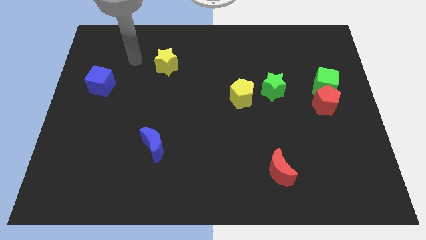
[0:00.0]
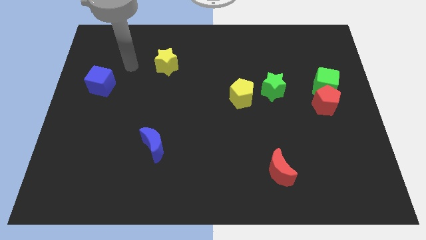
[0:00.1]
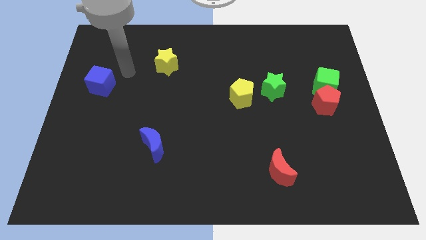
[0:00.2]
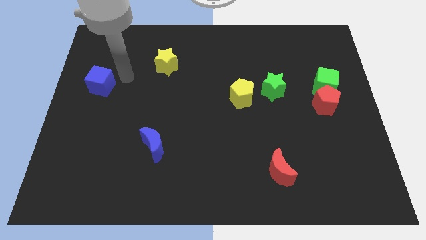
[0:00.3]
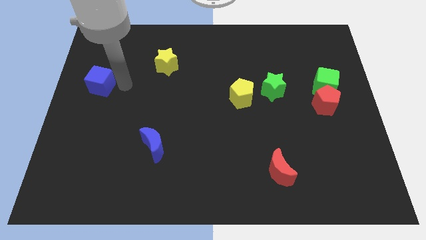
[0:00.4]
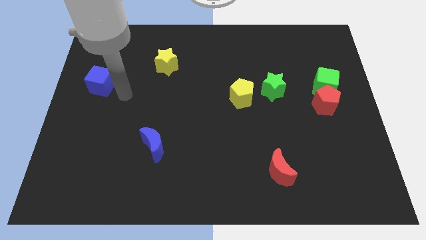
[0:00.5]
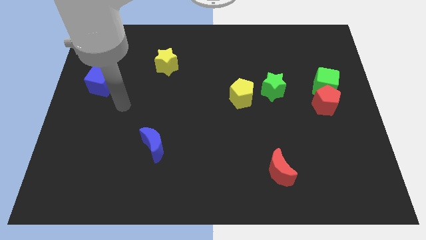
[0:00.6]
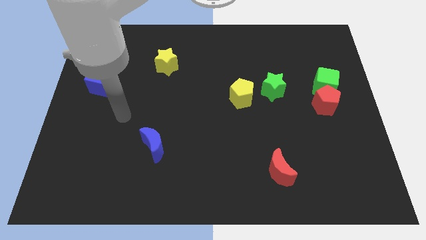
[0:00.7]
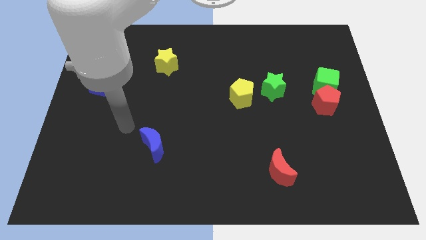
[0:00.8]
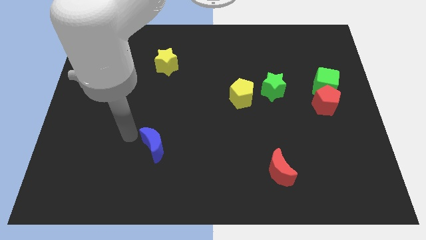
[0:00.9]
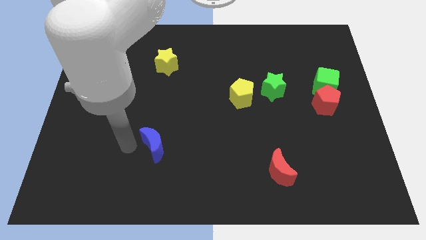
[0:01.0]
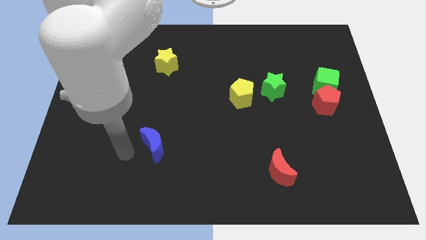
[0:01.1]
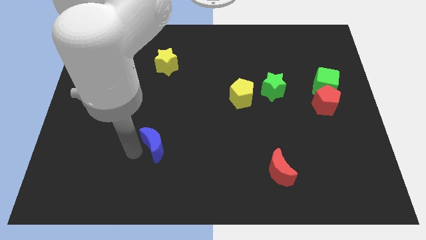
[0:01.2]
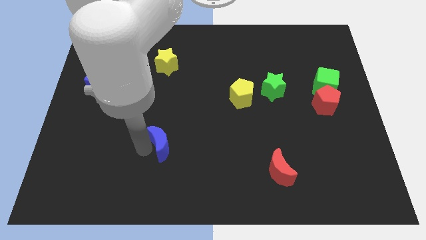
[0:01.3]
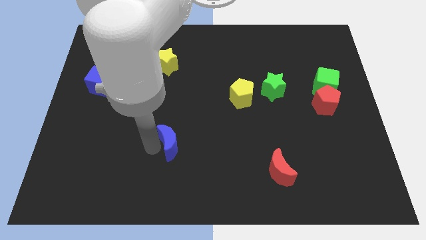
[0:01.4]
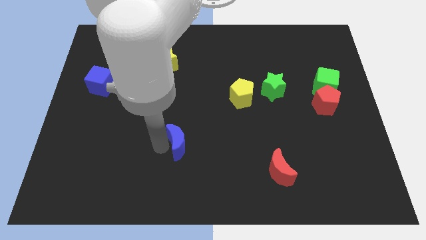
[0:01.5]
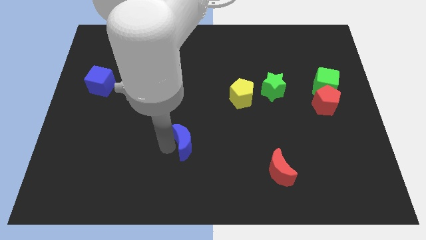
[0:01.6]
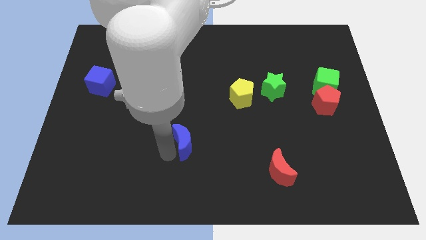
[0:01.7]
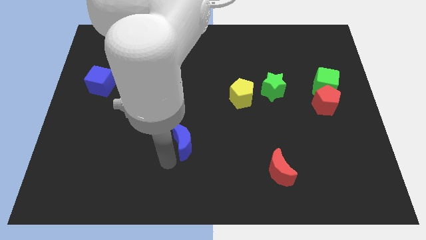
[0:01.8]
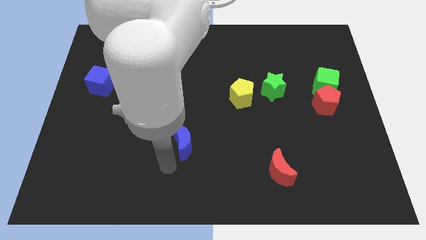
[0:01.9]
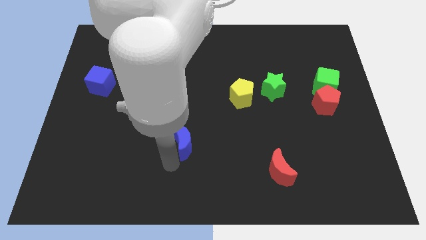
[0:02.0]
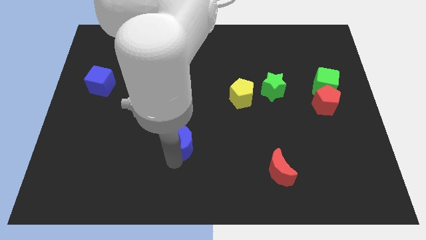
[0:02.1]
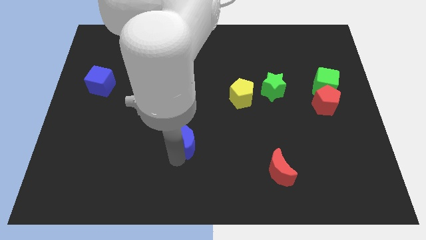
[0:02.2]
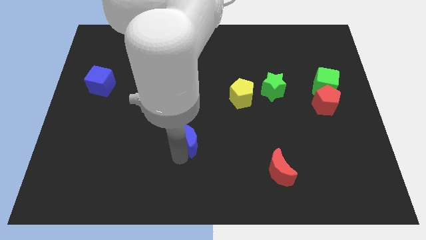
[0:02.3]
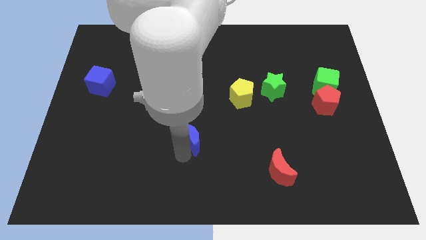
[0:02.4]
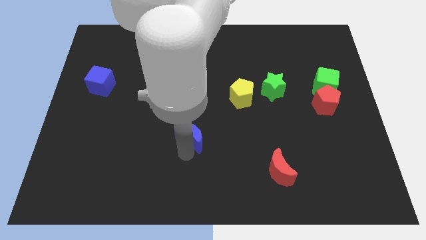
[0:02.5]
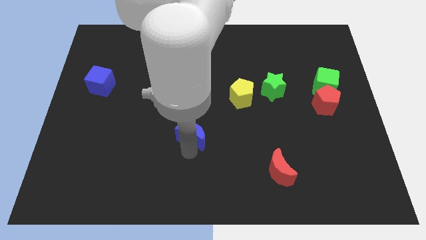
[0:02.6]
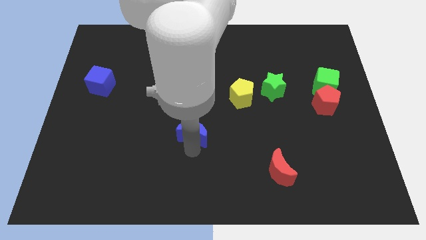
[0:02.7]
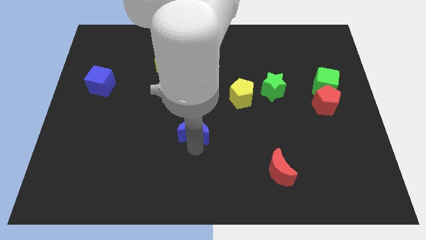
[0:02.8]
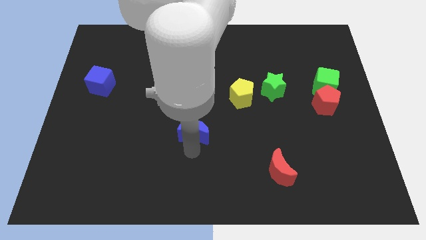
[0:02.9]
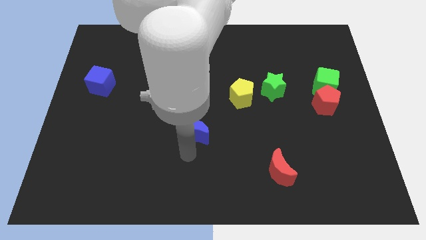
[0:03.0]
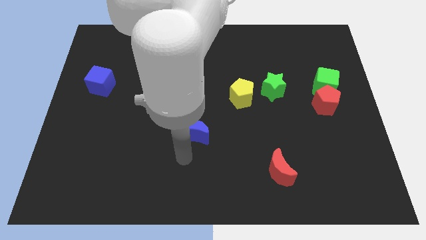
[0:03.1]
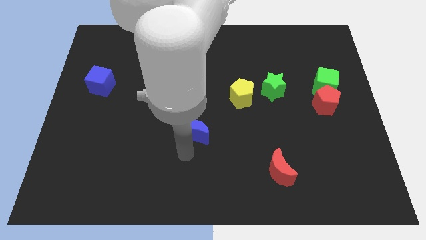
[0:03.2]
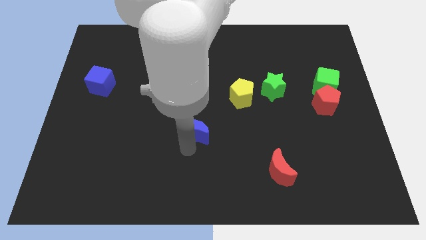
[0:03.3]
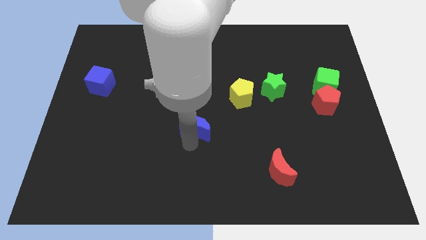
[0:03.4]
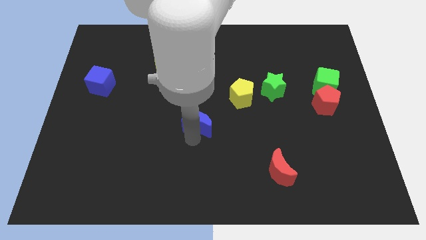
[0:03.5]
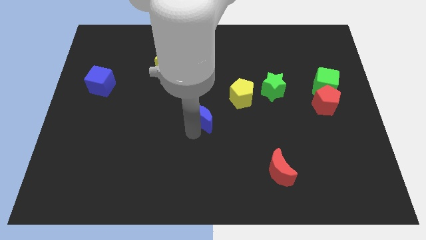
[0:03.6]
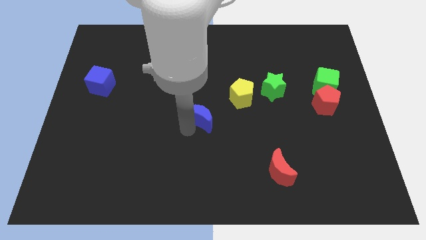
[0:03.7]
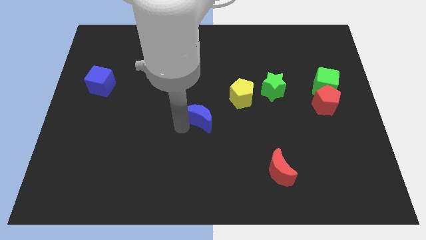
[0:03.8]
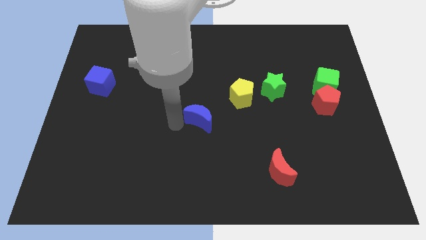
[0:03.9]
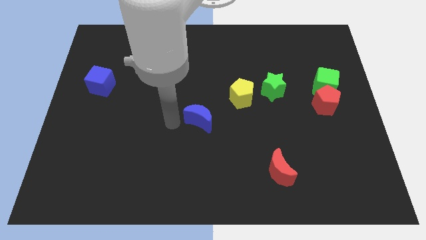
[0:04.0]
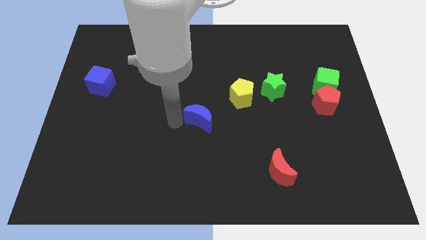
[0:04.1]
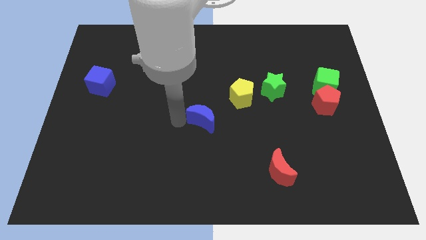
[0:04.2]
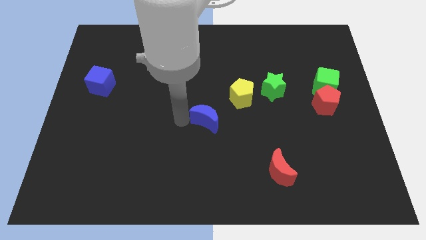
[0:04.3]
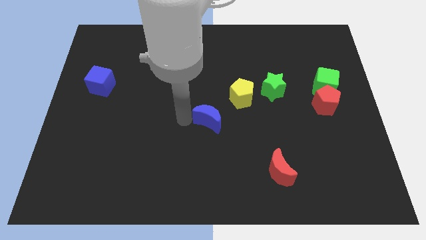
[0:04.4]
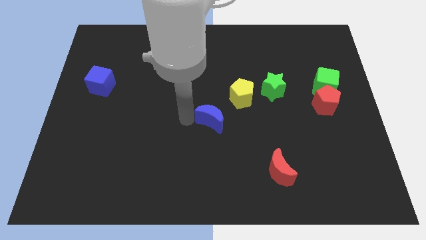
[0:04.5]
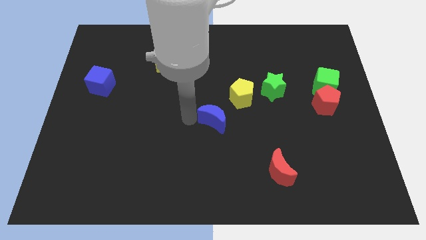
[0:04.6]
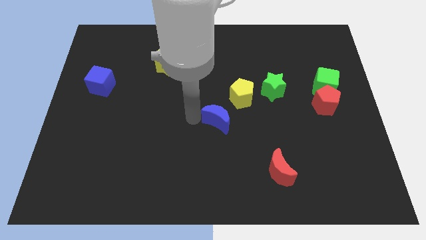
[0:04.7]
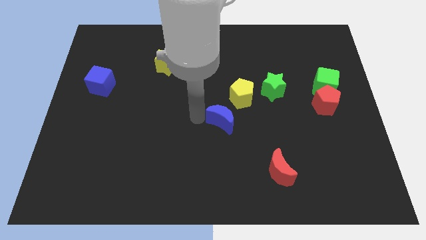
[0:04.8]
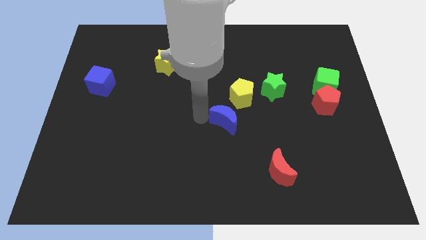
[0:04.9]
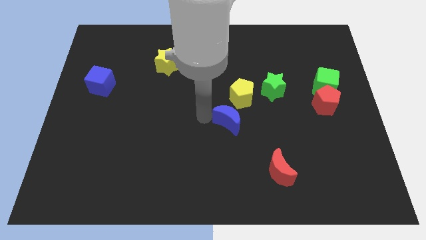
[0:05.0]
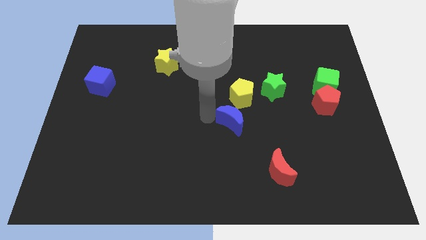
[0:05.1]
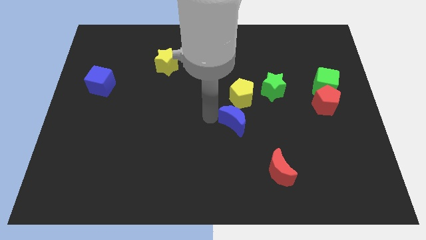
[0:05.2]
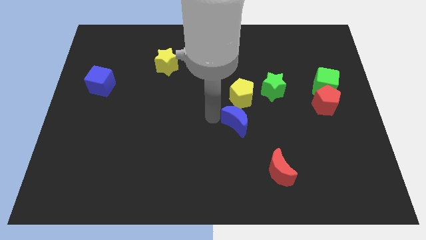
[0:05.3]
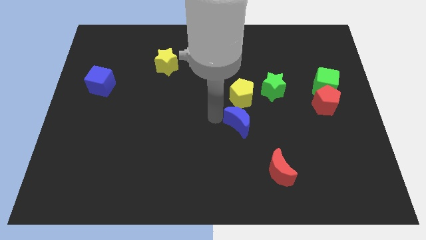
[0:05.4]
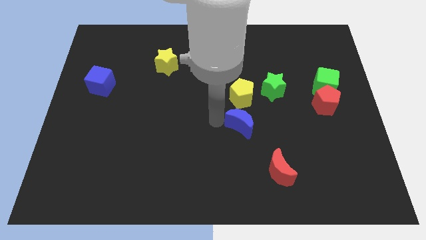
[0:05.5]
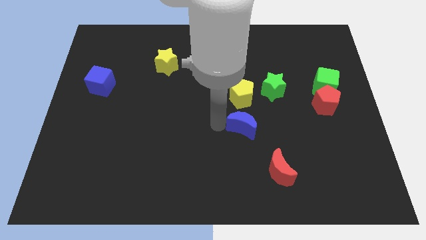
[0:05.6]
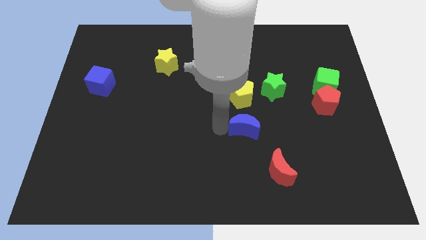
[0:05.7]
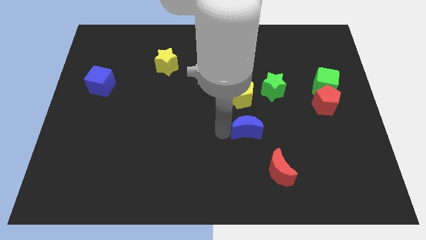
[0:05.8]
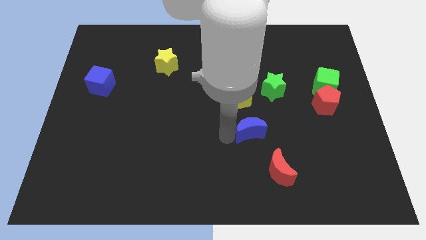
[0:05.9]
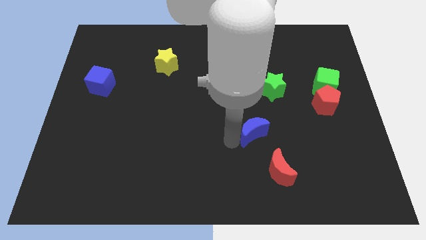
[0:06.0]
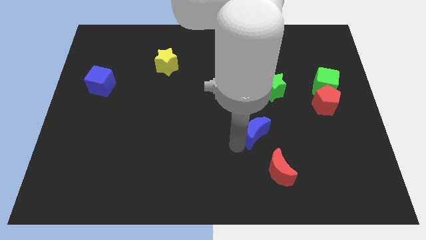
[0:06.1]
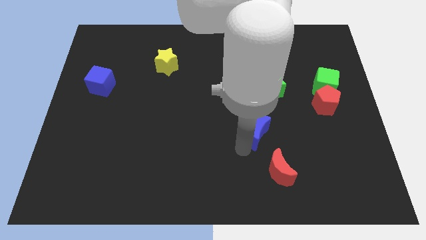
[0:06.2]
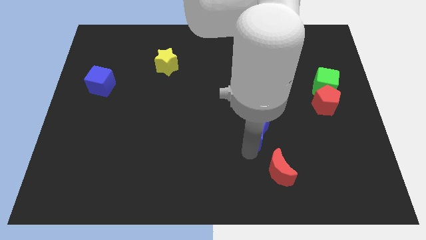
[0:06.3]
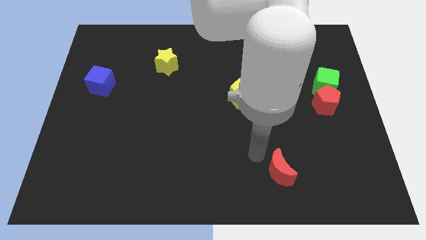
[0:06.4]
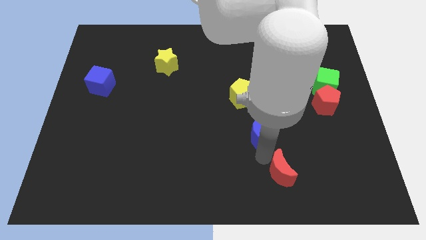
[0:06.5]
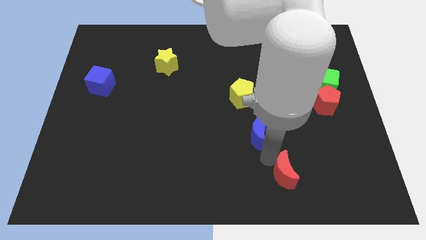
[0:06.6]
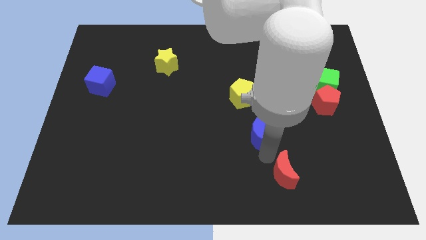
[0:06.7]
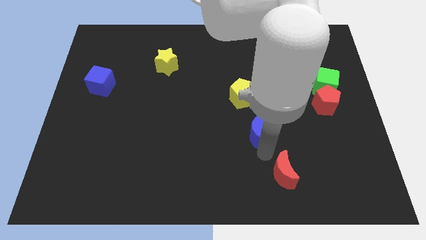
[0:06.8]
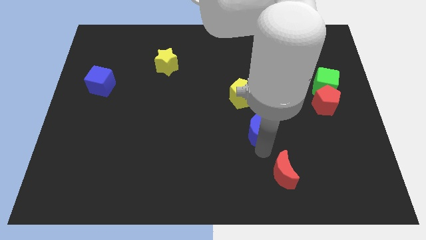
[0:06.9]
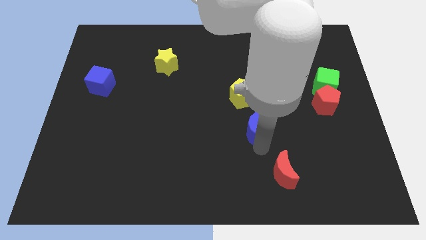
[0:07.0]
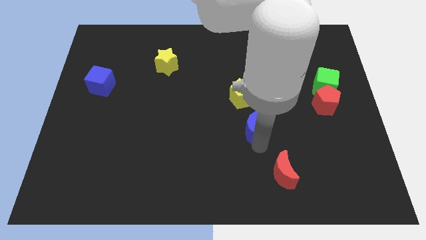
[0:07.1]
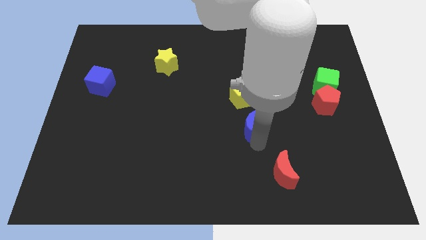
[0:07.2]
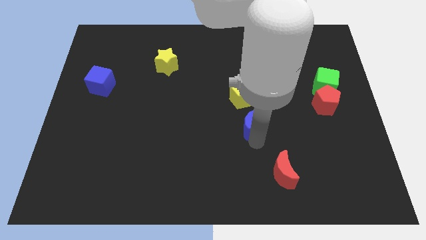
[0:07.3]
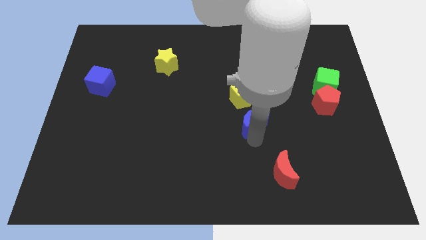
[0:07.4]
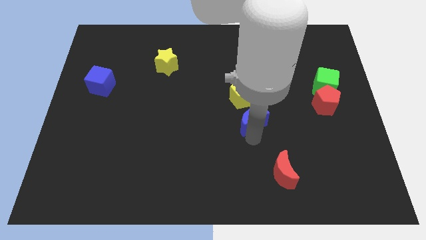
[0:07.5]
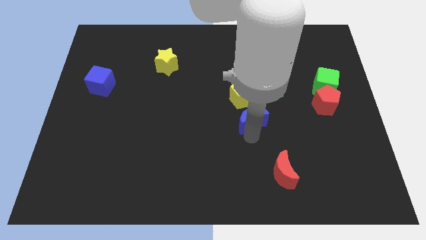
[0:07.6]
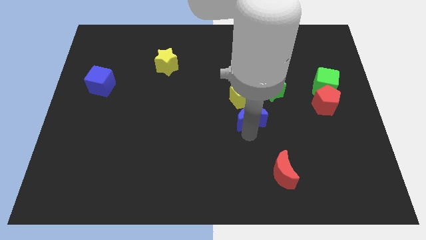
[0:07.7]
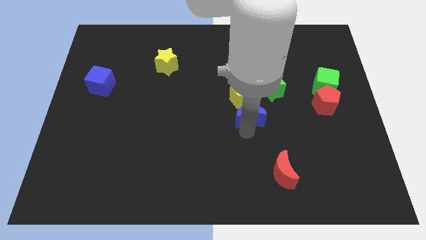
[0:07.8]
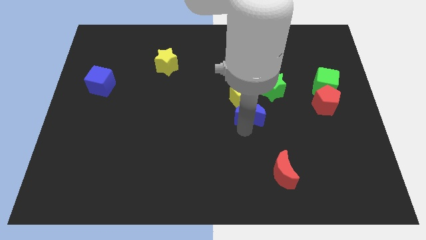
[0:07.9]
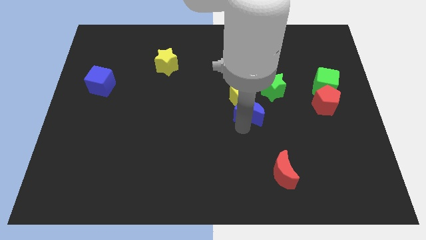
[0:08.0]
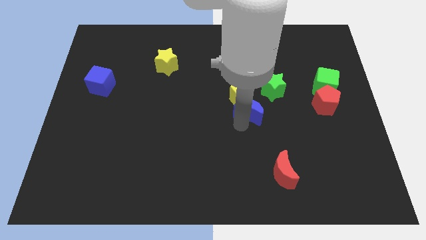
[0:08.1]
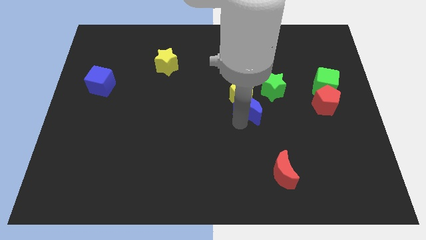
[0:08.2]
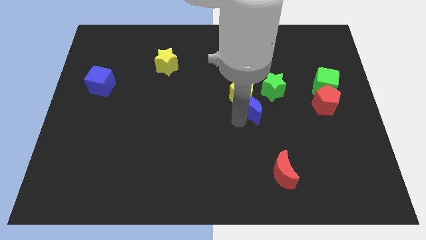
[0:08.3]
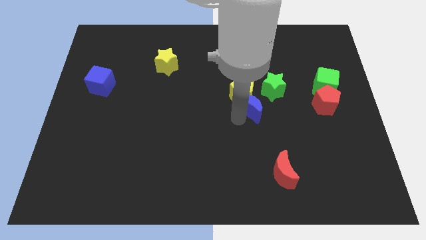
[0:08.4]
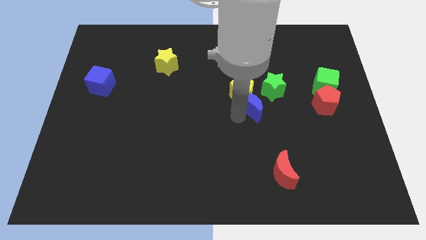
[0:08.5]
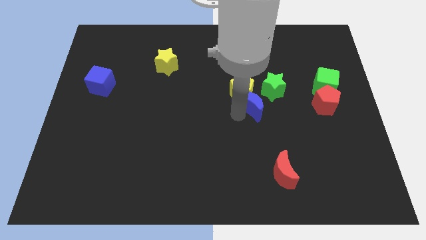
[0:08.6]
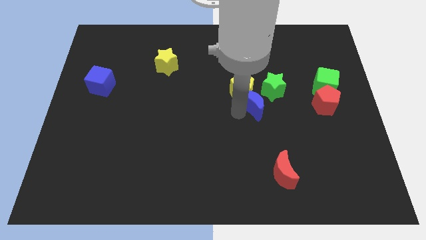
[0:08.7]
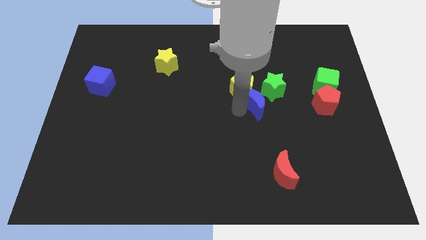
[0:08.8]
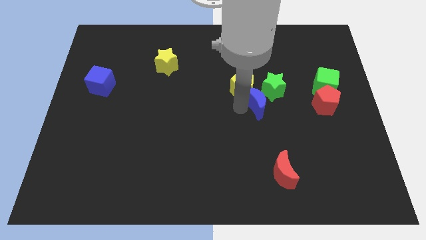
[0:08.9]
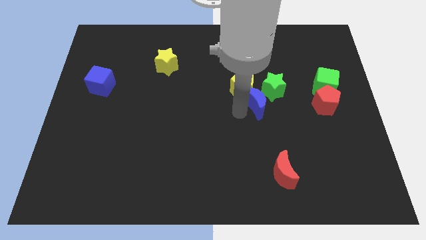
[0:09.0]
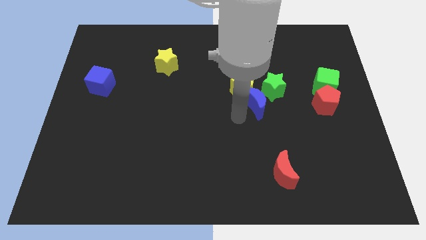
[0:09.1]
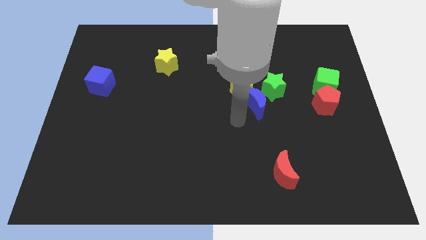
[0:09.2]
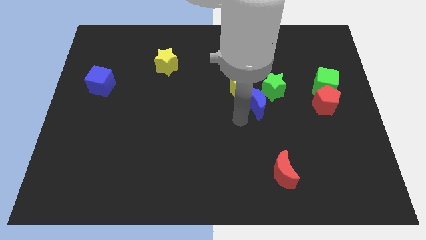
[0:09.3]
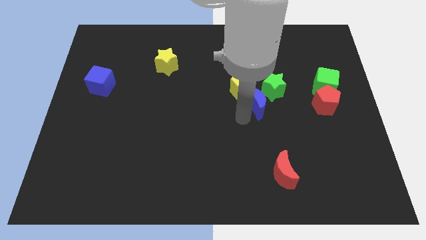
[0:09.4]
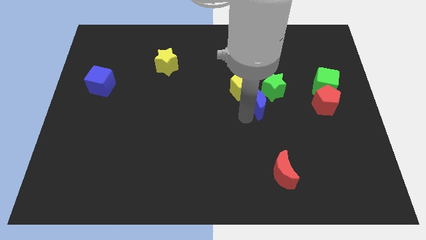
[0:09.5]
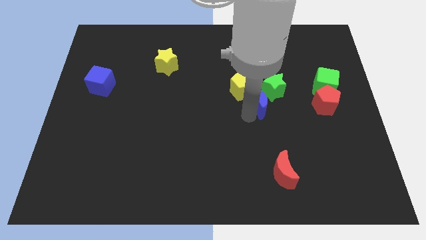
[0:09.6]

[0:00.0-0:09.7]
put the blue moon close to the green star
